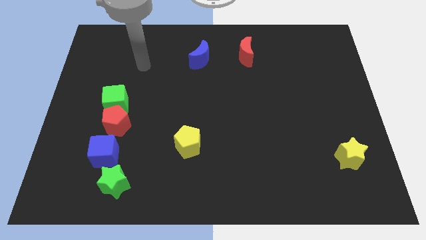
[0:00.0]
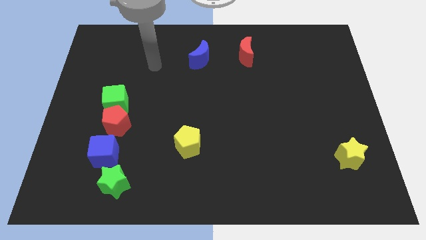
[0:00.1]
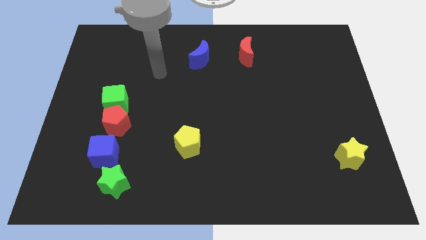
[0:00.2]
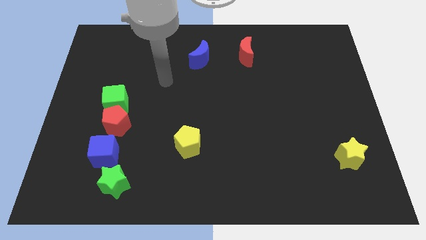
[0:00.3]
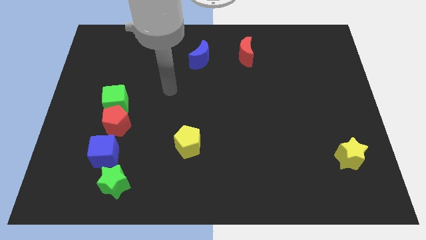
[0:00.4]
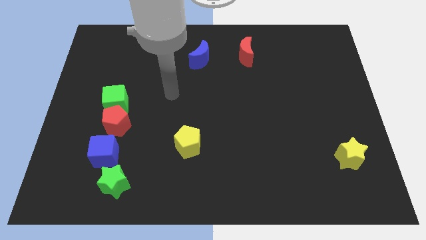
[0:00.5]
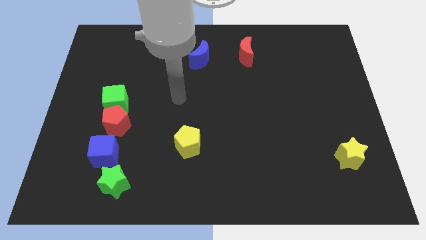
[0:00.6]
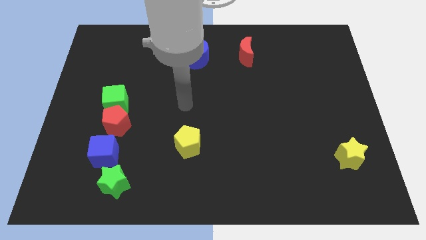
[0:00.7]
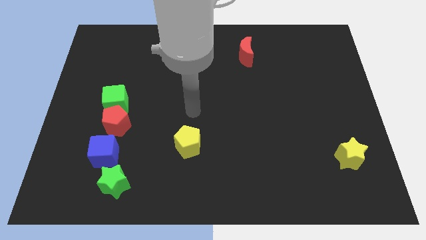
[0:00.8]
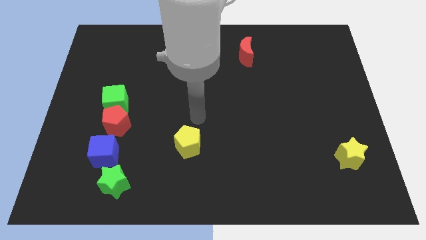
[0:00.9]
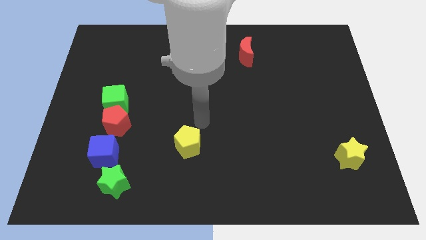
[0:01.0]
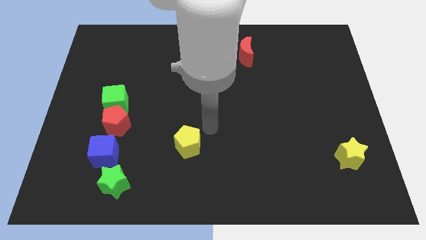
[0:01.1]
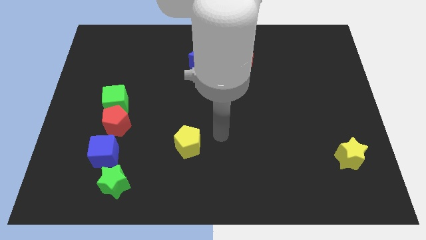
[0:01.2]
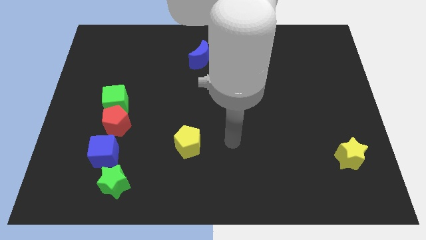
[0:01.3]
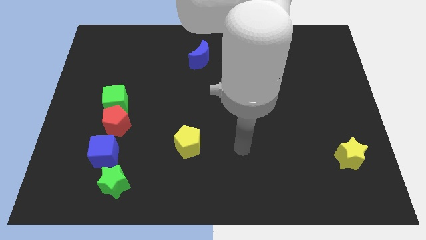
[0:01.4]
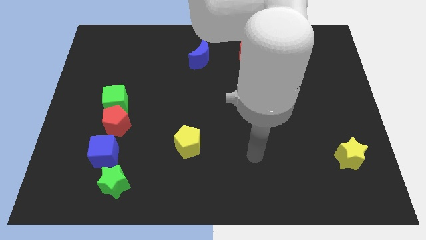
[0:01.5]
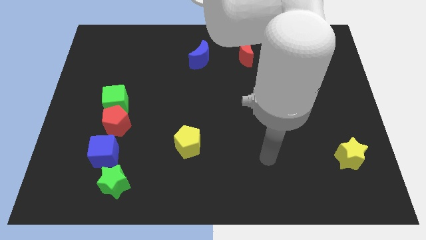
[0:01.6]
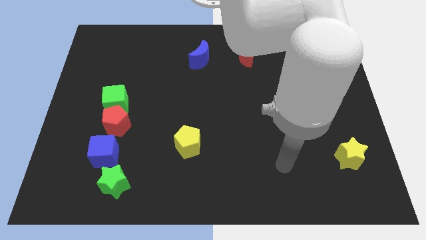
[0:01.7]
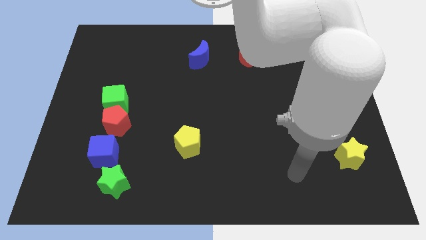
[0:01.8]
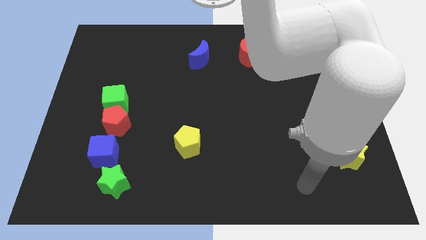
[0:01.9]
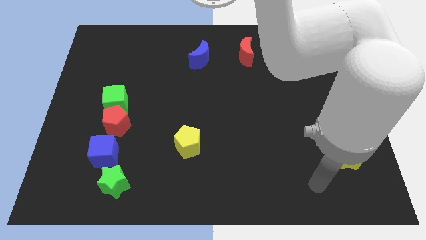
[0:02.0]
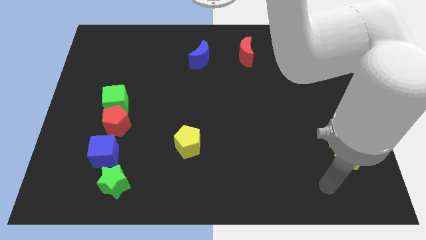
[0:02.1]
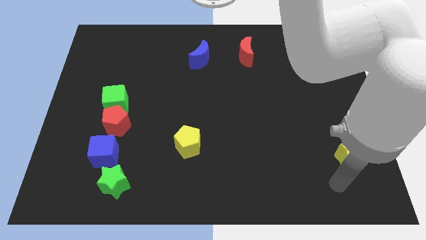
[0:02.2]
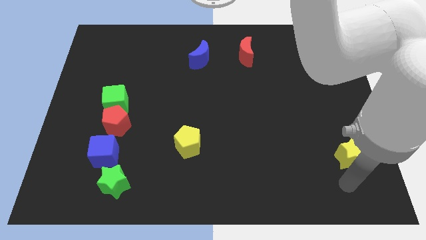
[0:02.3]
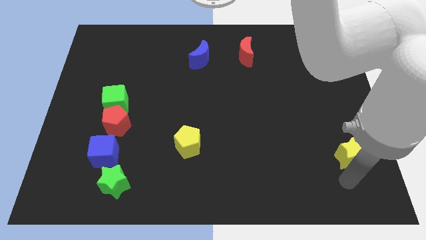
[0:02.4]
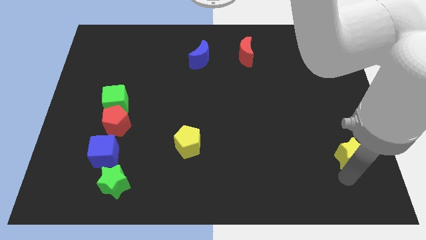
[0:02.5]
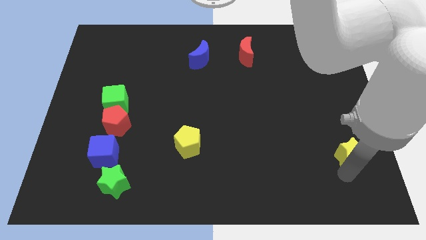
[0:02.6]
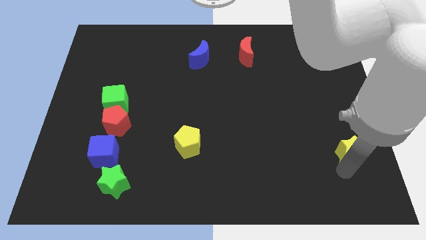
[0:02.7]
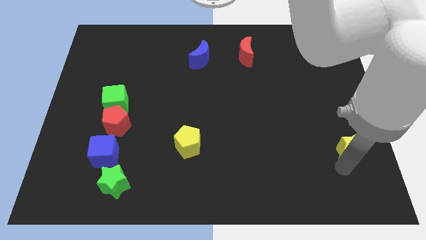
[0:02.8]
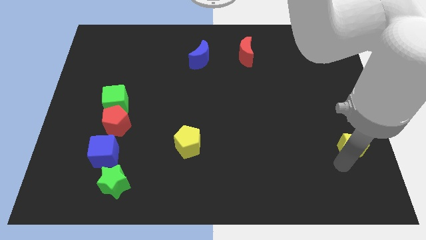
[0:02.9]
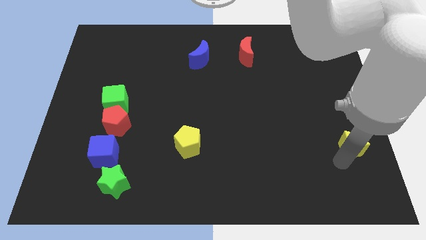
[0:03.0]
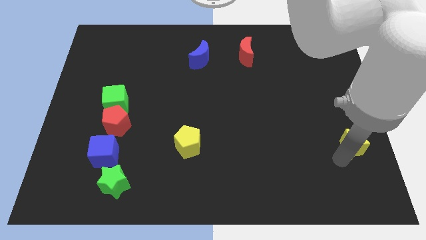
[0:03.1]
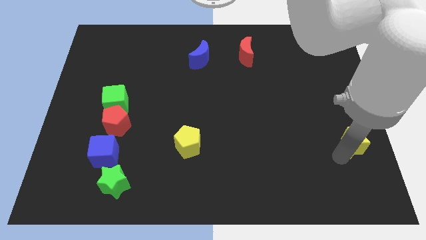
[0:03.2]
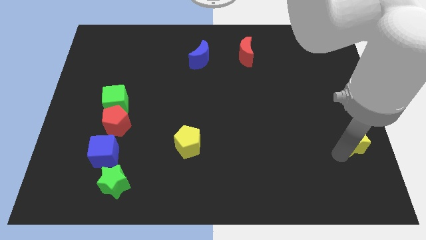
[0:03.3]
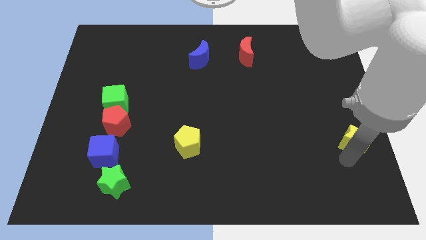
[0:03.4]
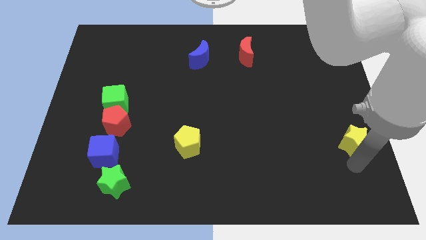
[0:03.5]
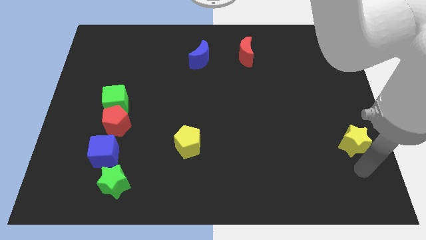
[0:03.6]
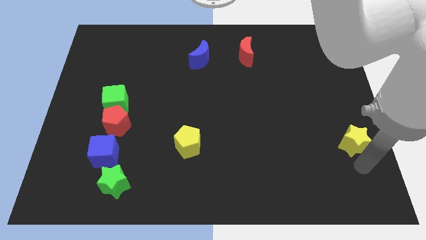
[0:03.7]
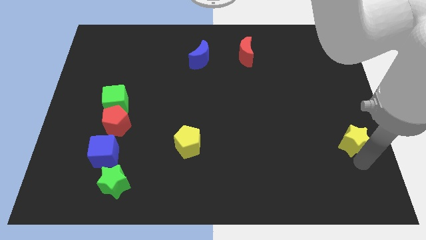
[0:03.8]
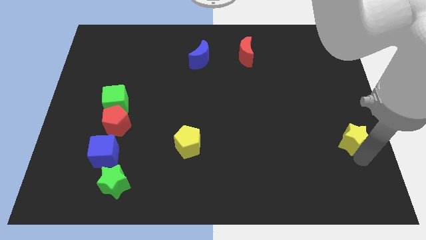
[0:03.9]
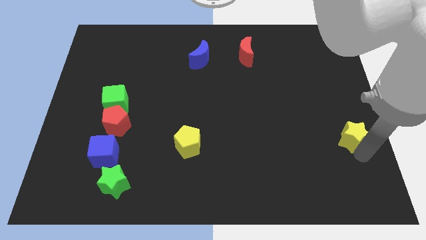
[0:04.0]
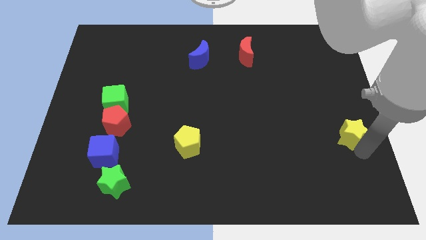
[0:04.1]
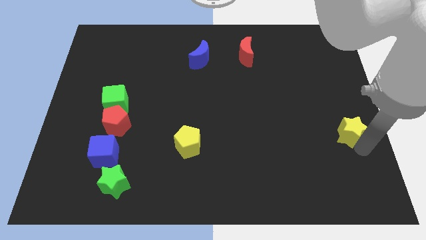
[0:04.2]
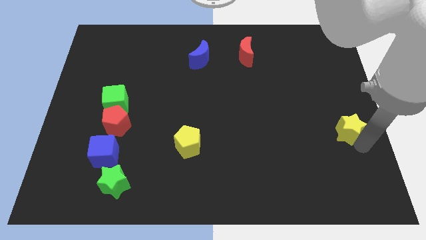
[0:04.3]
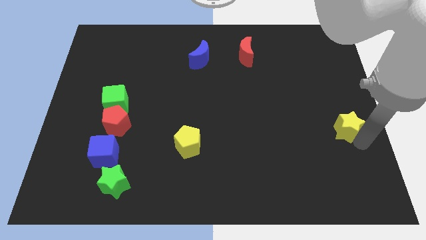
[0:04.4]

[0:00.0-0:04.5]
push the yellow star somewhat up

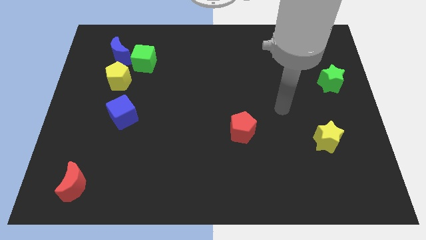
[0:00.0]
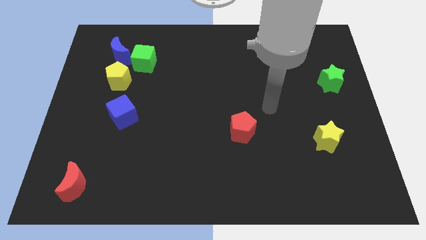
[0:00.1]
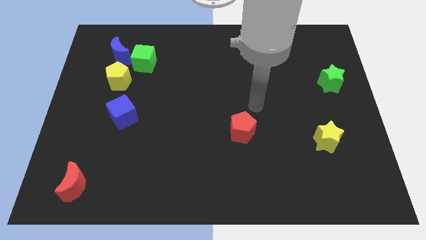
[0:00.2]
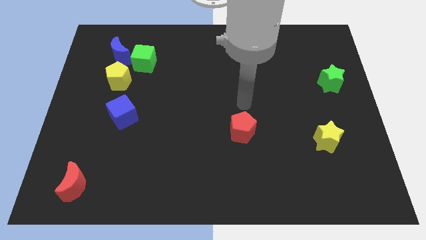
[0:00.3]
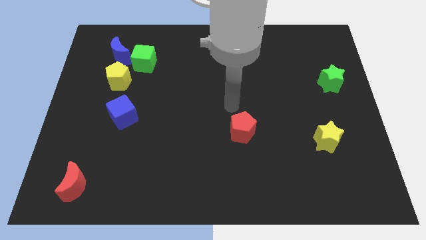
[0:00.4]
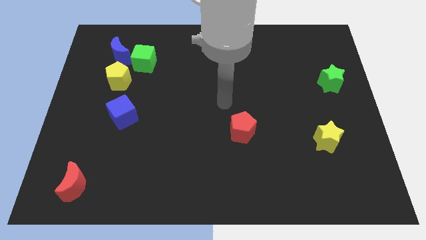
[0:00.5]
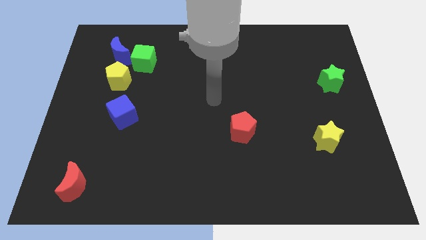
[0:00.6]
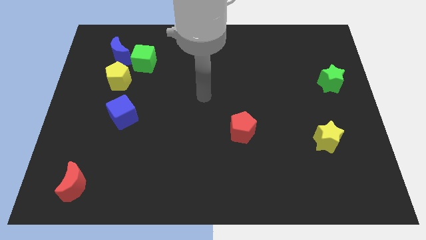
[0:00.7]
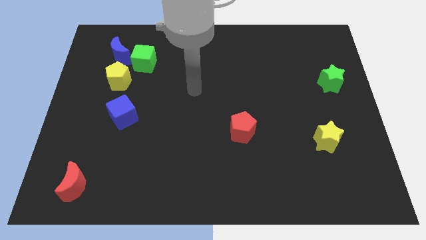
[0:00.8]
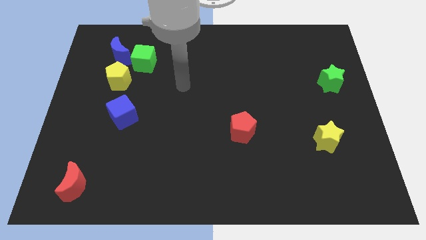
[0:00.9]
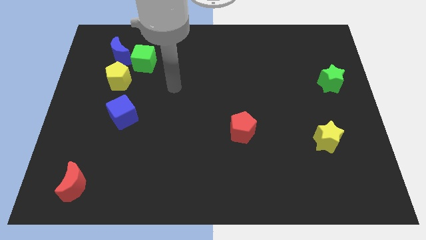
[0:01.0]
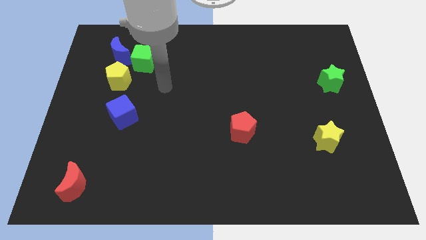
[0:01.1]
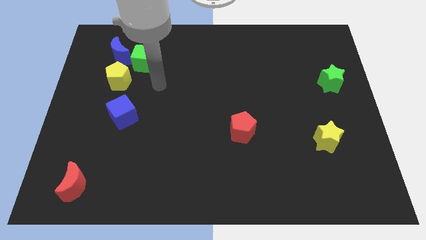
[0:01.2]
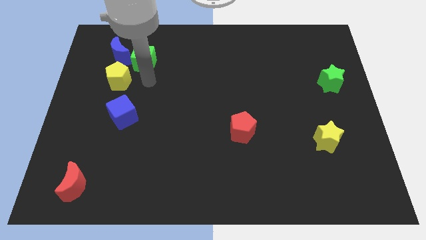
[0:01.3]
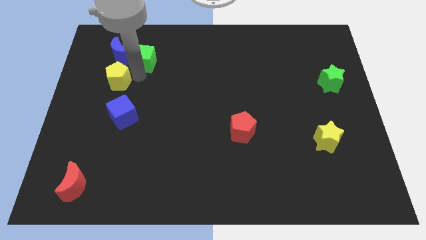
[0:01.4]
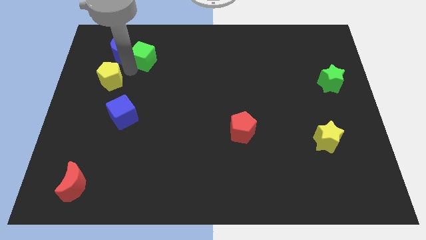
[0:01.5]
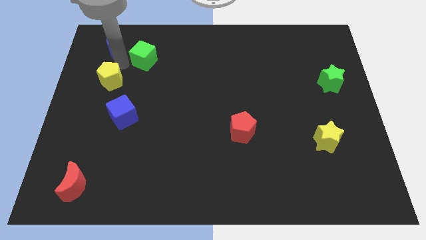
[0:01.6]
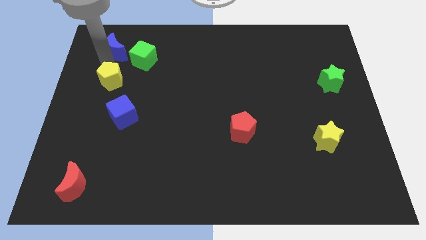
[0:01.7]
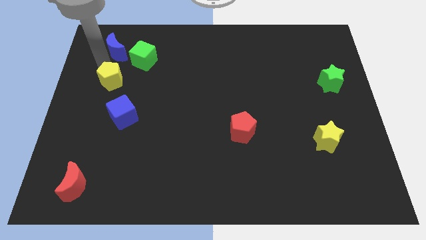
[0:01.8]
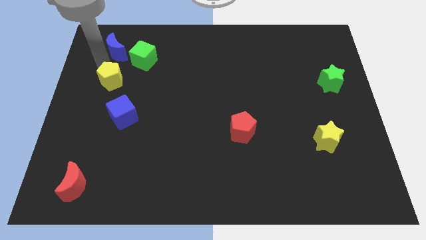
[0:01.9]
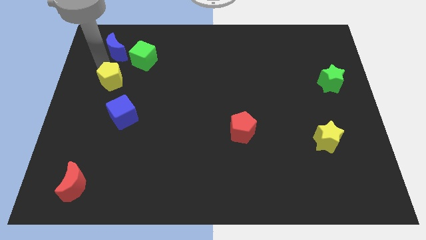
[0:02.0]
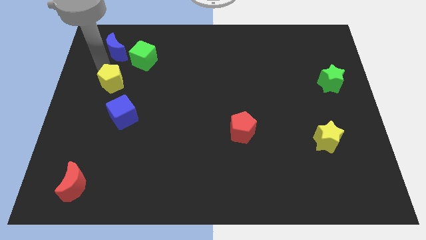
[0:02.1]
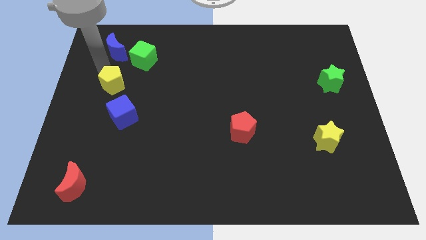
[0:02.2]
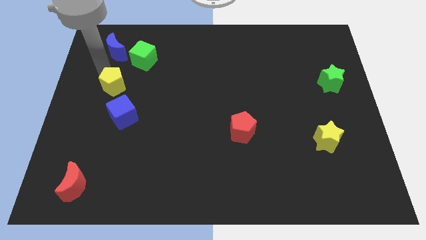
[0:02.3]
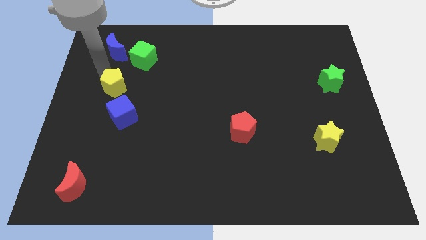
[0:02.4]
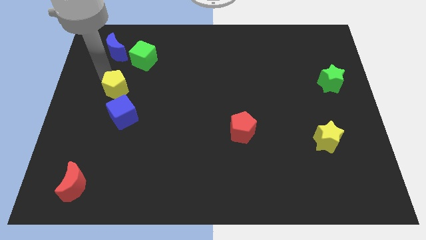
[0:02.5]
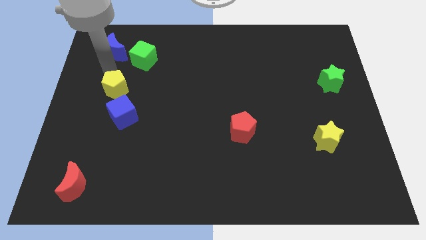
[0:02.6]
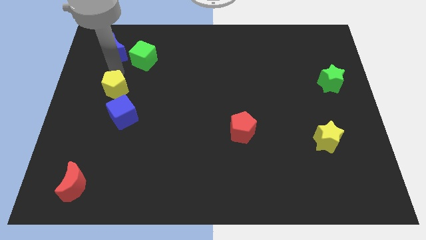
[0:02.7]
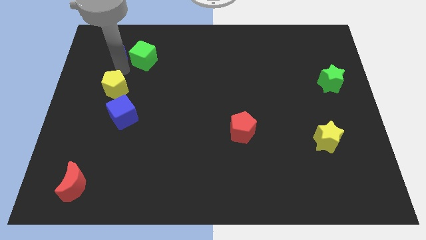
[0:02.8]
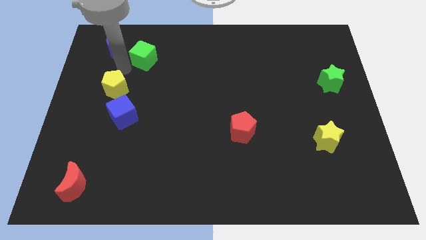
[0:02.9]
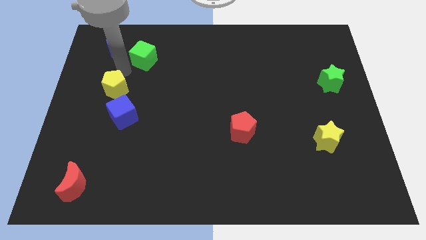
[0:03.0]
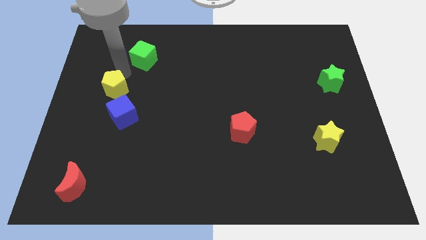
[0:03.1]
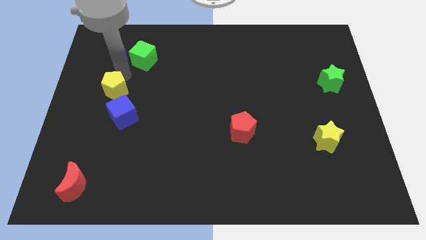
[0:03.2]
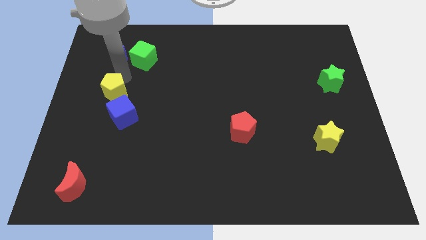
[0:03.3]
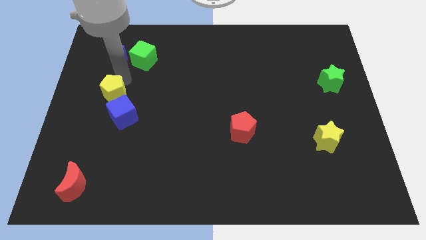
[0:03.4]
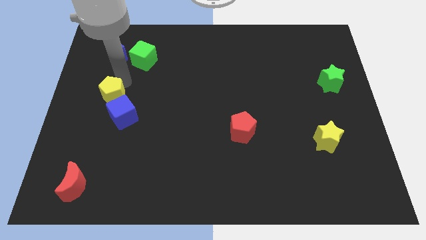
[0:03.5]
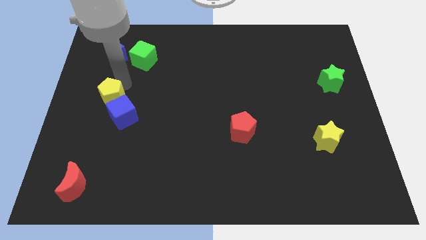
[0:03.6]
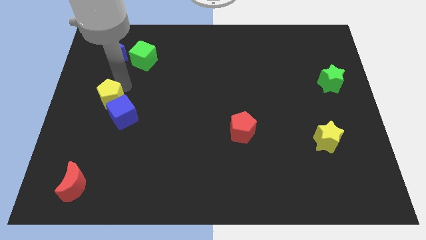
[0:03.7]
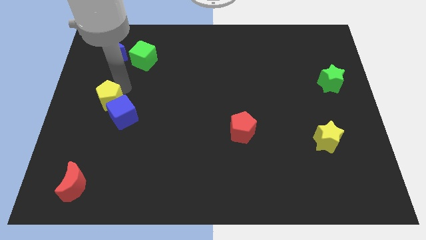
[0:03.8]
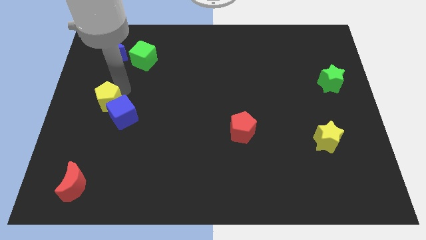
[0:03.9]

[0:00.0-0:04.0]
slightly slide the yellow pentagon downwards
